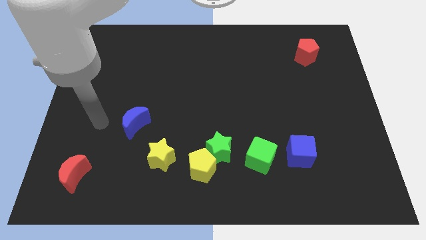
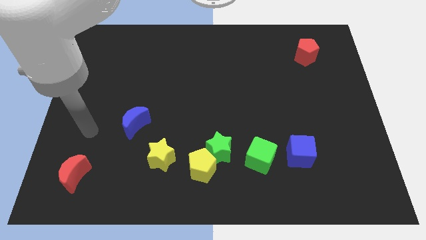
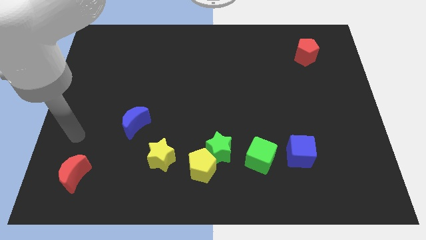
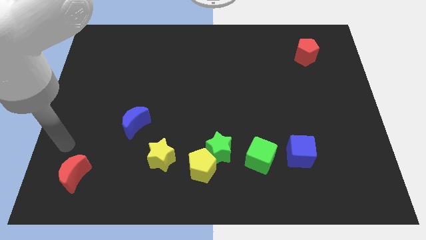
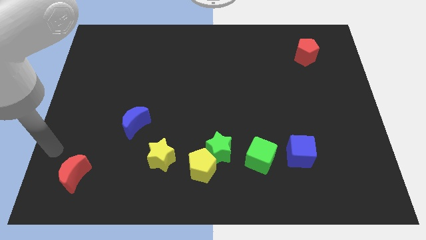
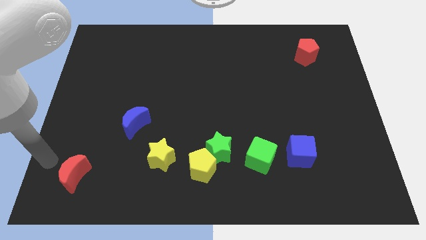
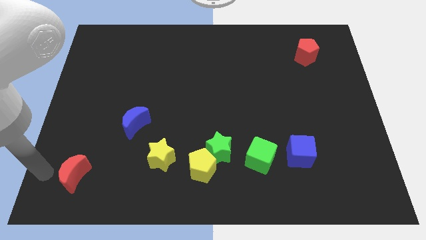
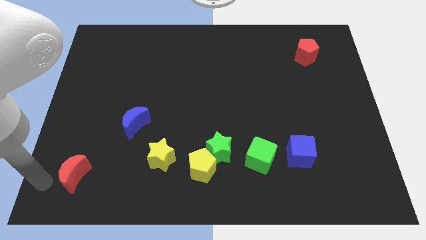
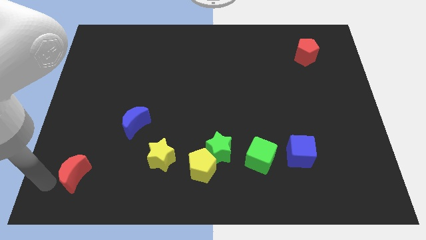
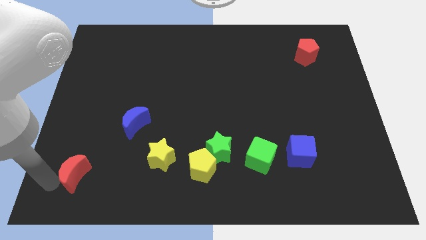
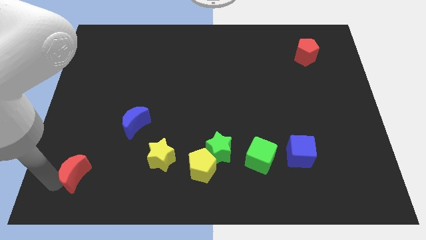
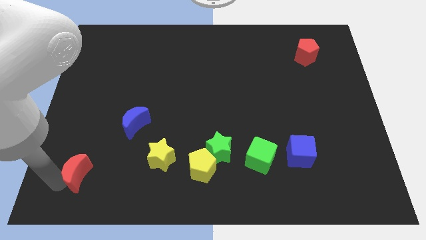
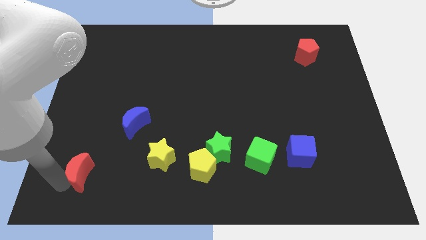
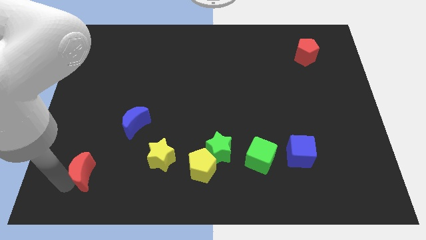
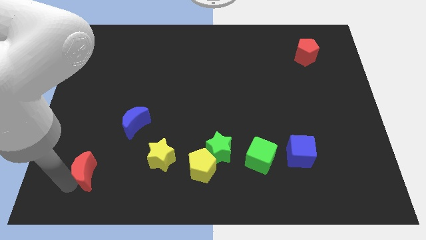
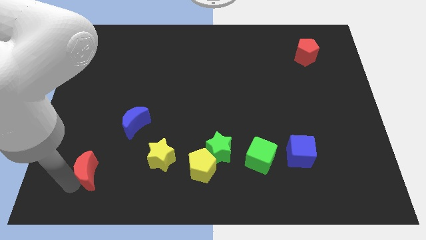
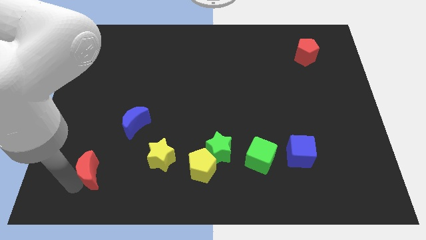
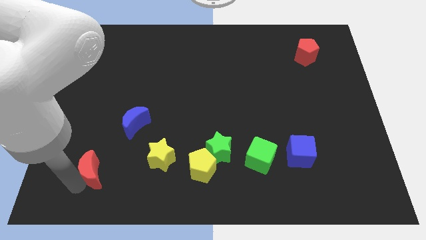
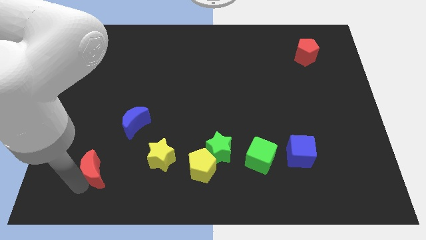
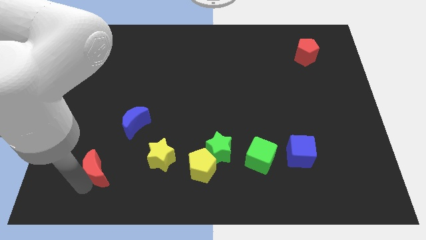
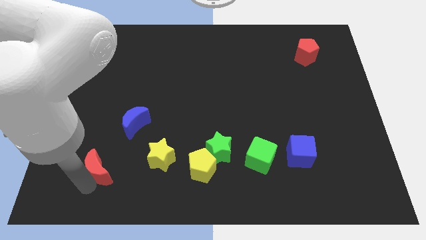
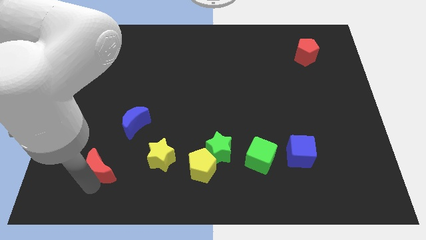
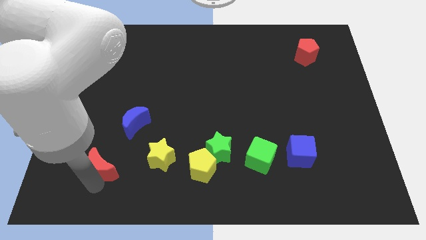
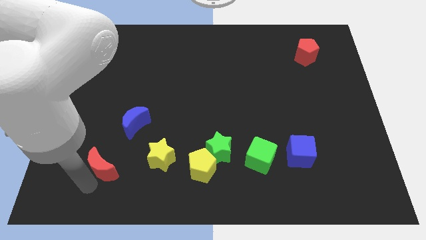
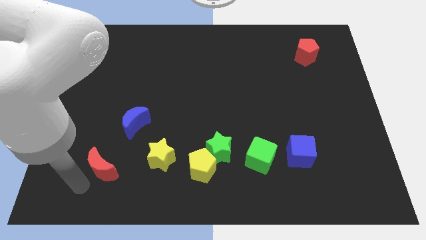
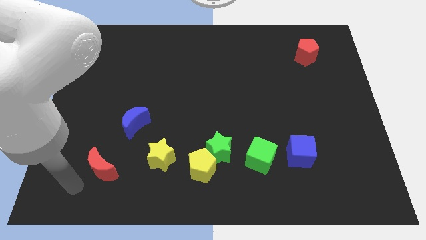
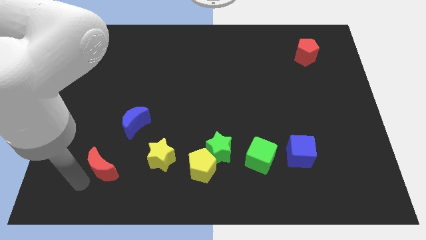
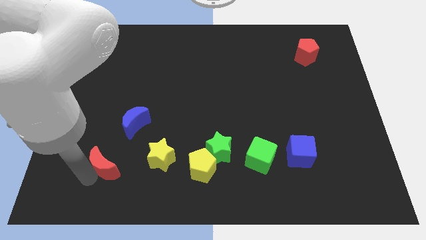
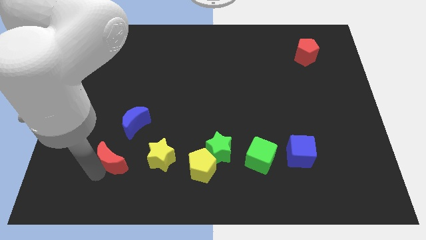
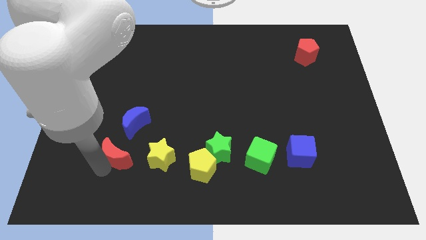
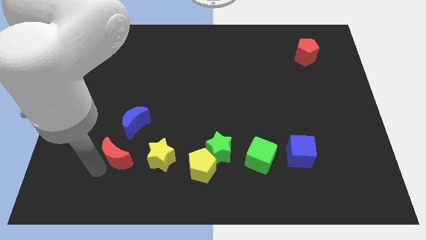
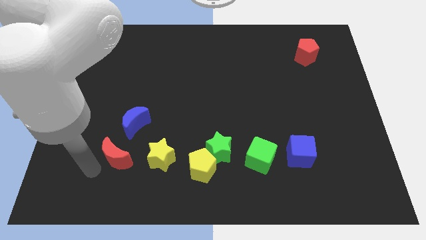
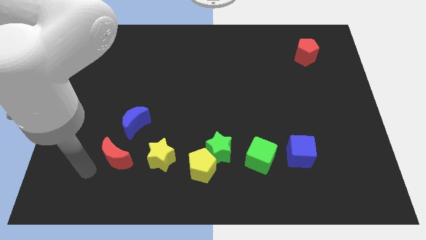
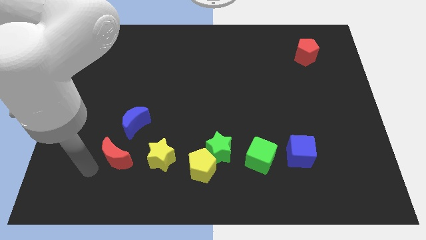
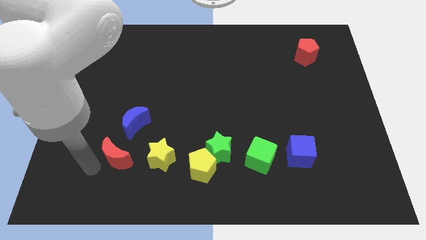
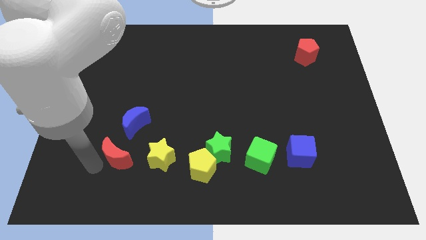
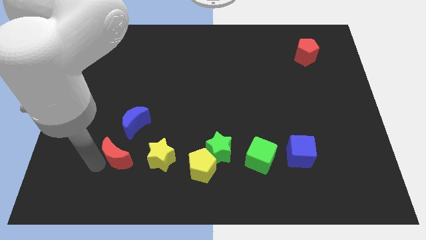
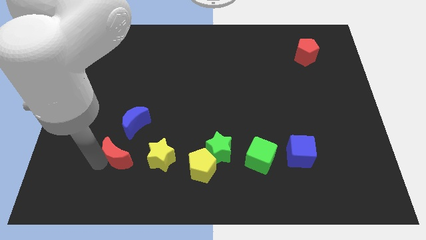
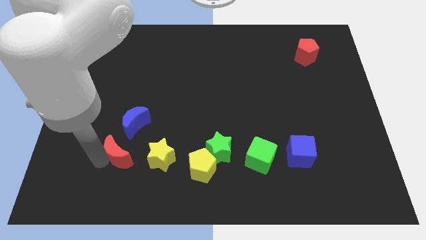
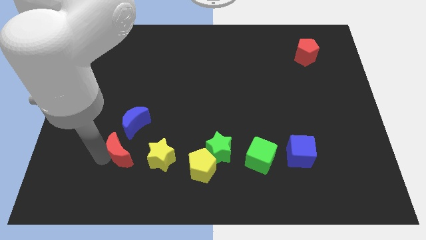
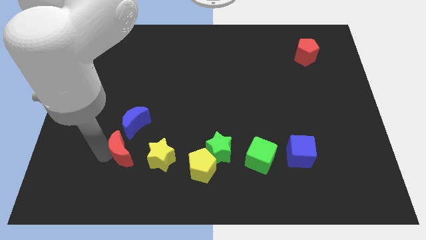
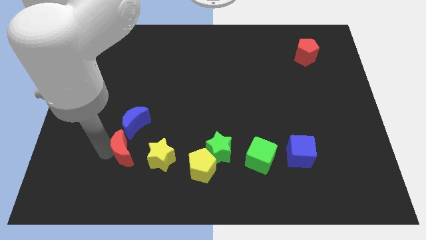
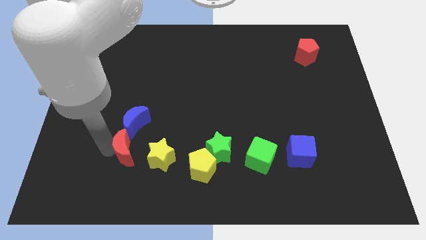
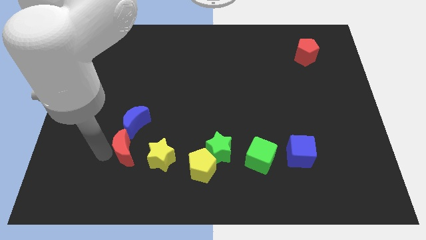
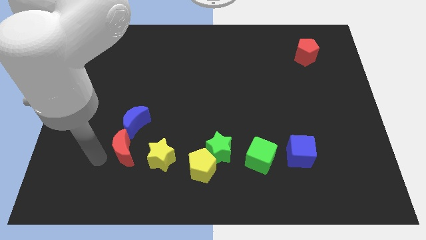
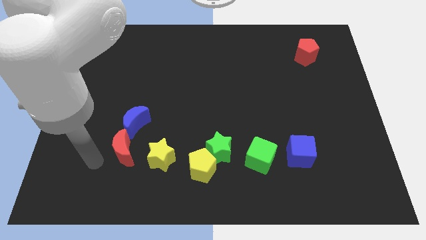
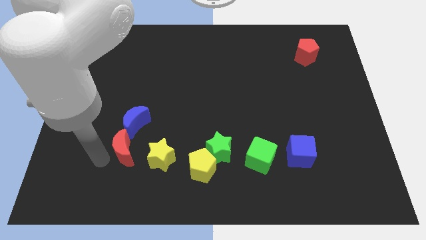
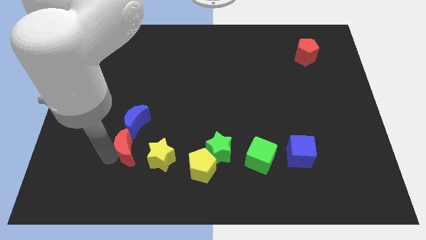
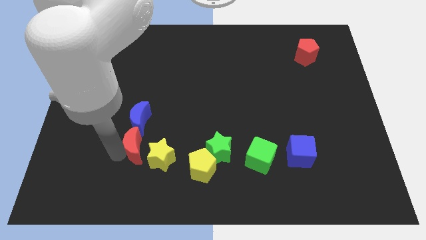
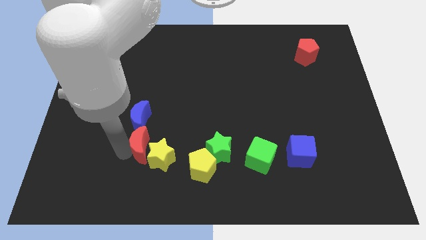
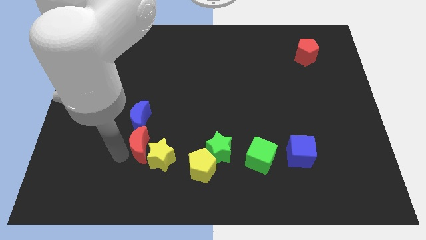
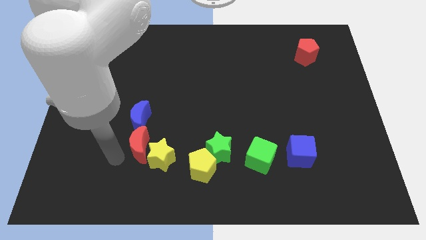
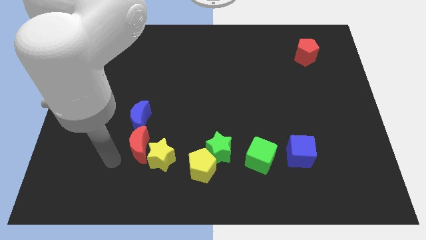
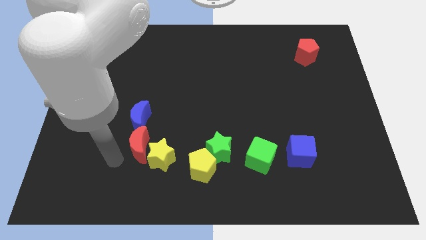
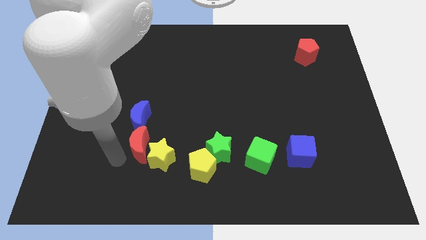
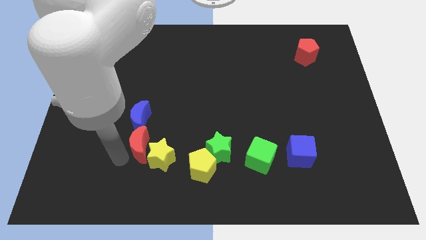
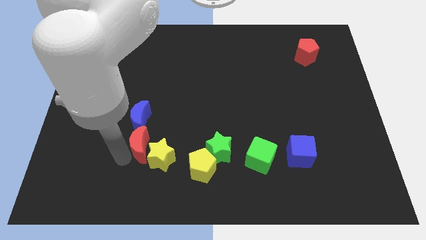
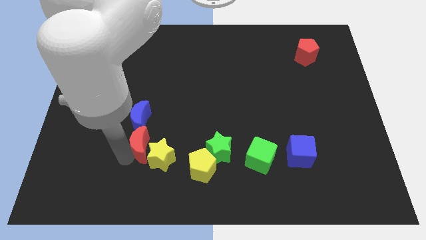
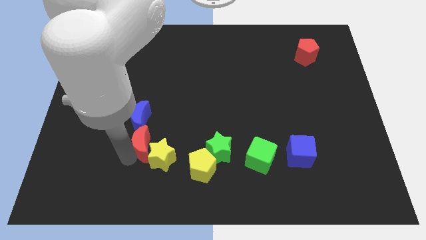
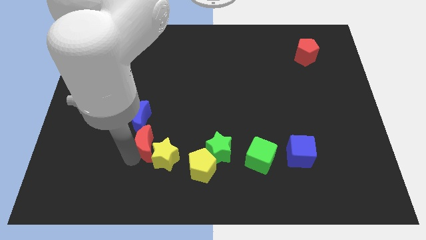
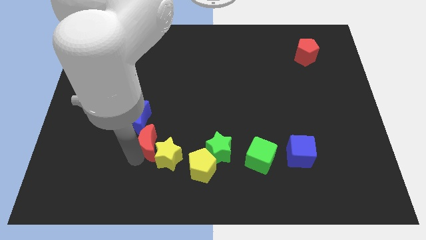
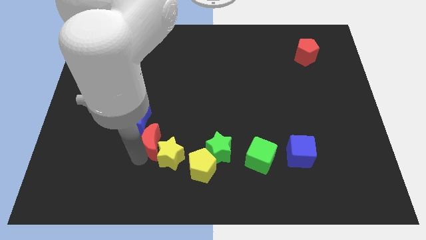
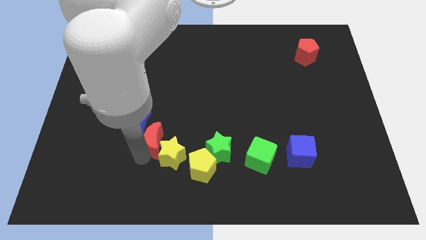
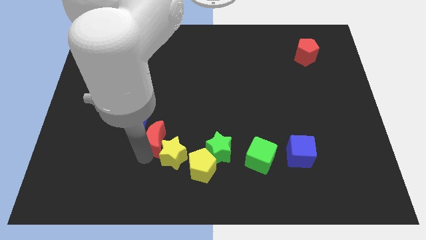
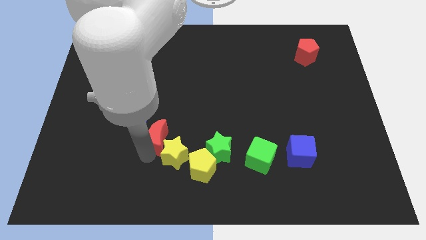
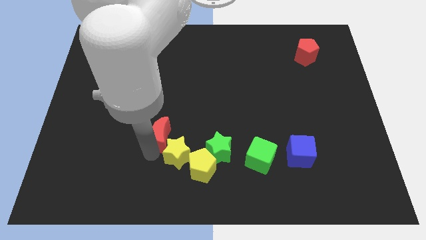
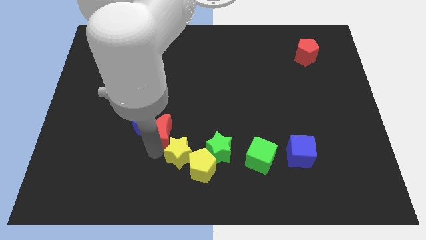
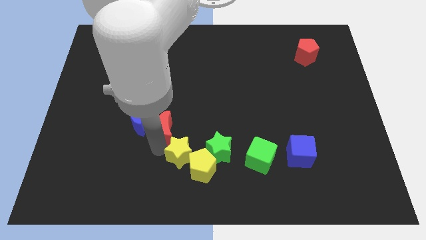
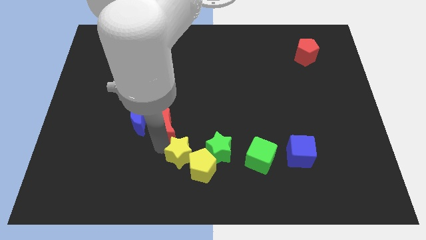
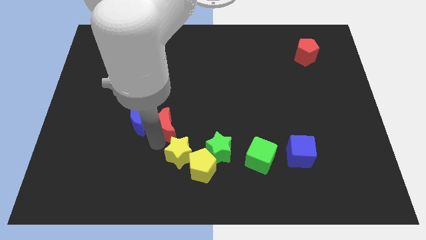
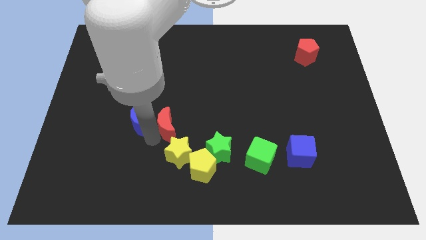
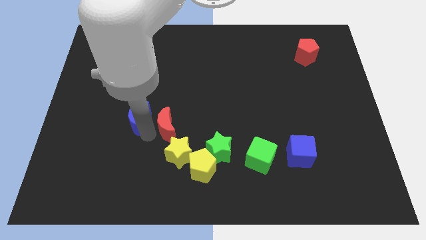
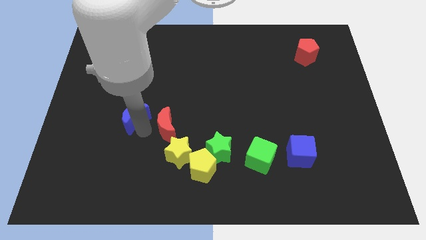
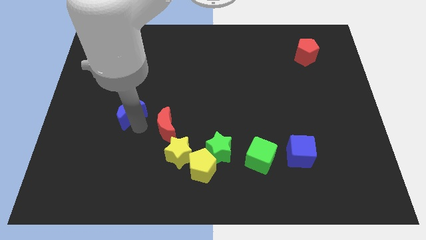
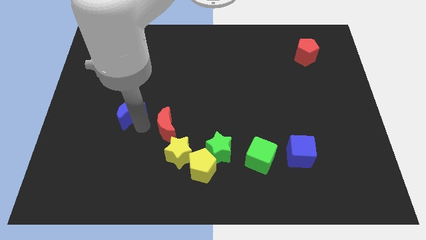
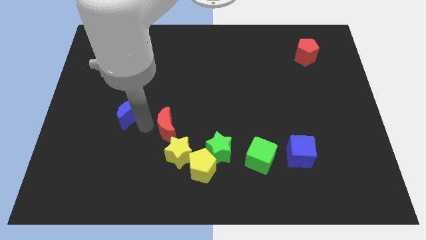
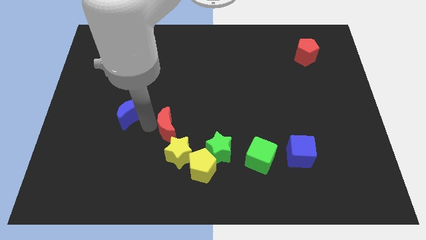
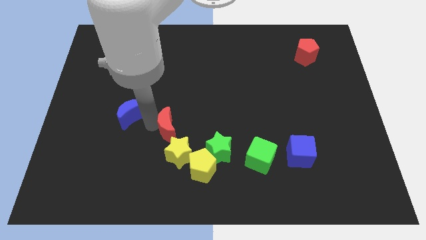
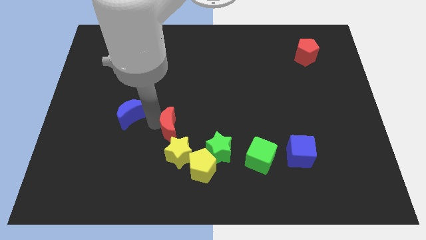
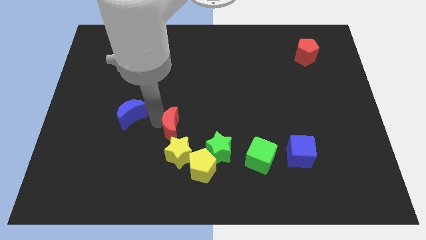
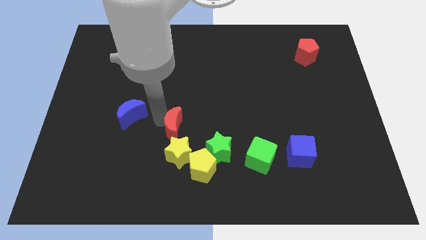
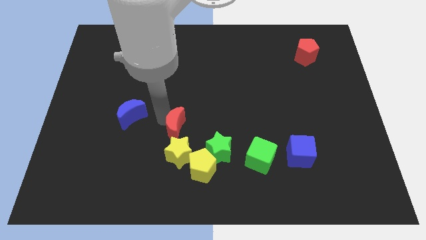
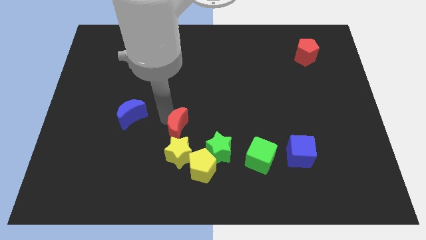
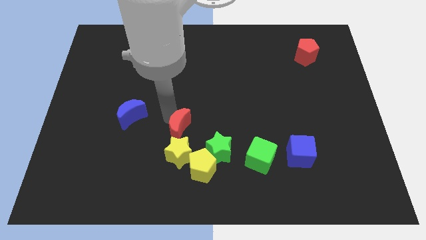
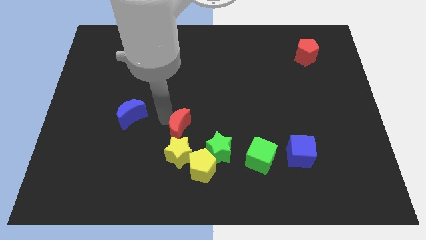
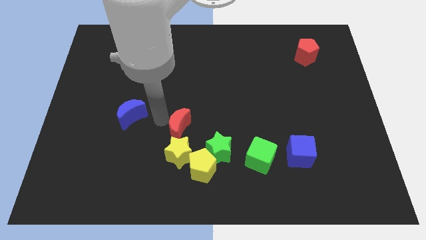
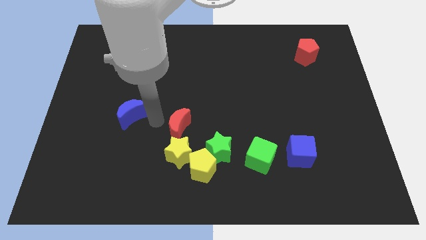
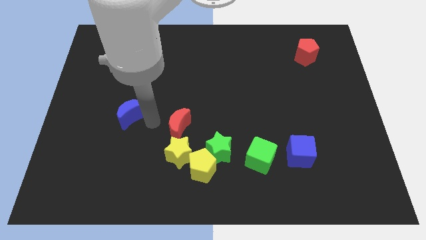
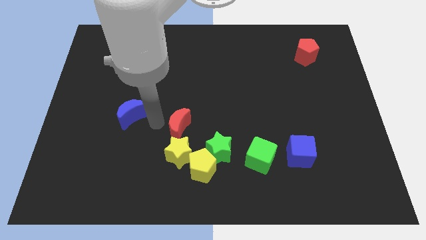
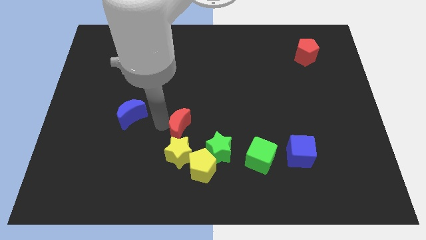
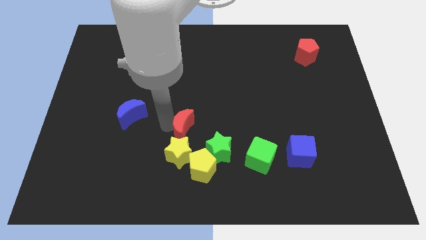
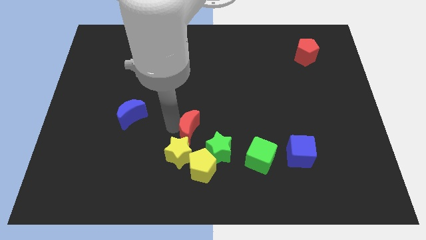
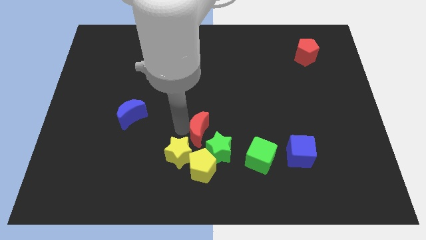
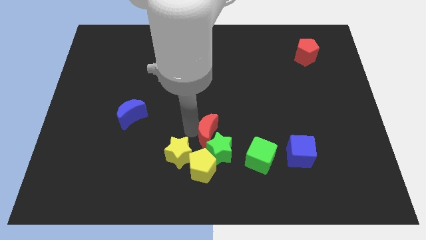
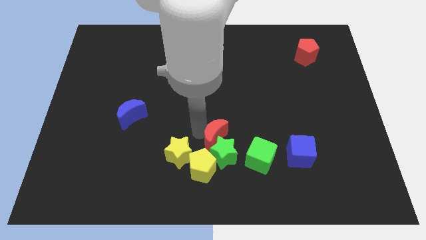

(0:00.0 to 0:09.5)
slide the red moon to the top left of the green cube
